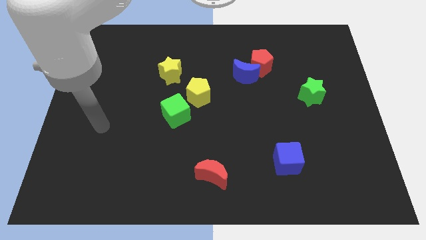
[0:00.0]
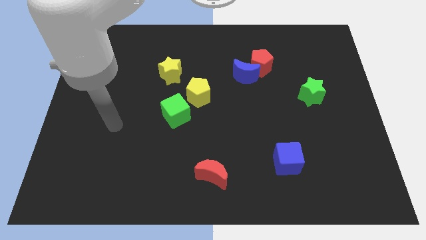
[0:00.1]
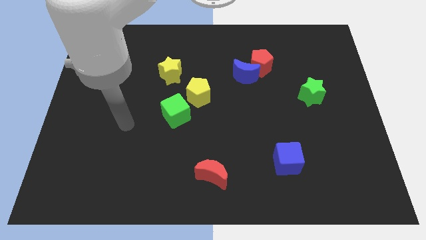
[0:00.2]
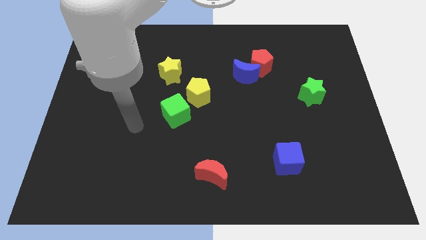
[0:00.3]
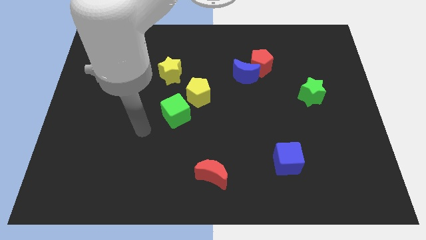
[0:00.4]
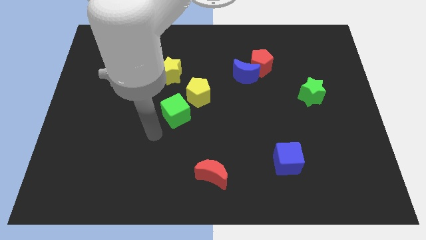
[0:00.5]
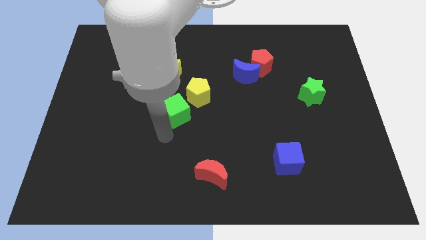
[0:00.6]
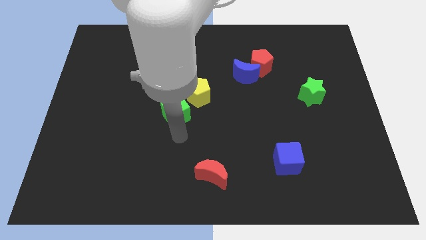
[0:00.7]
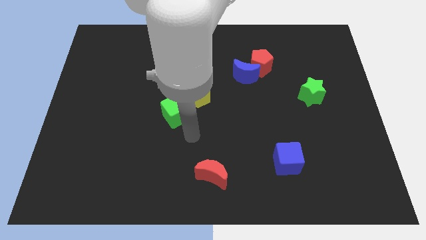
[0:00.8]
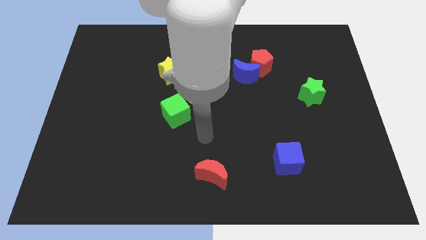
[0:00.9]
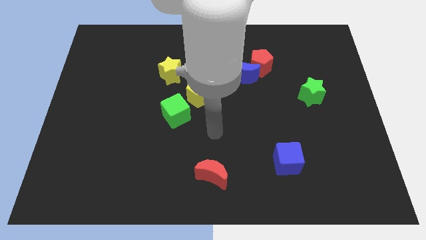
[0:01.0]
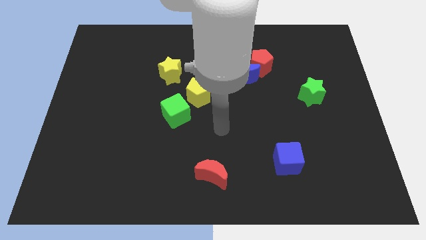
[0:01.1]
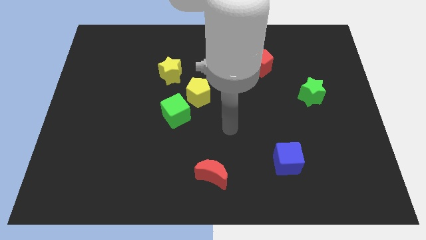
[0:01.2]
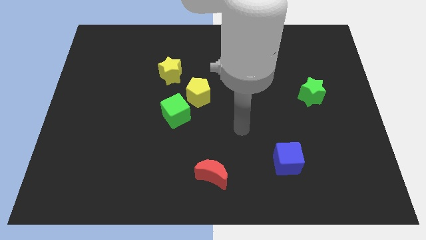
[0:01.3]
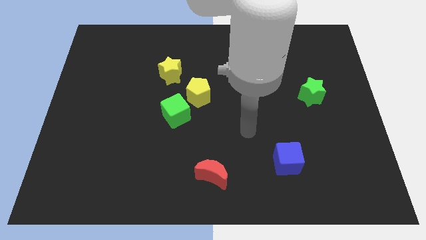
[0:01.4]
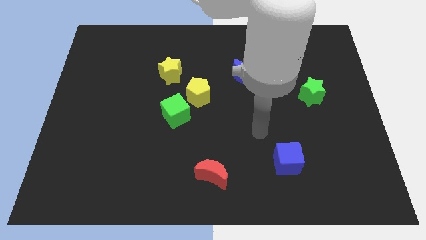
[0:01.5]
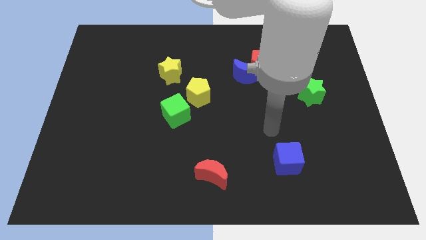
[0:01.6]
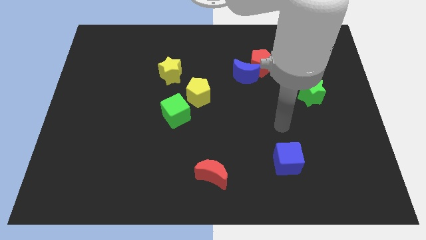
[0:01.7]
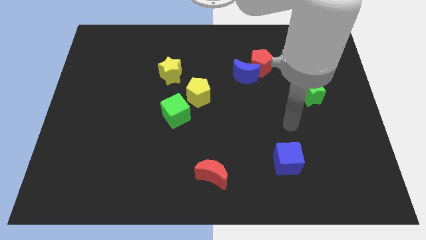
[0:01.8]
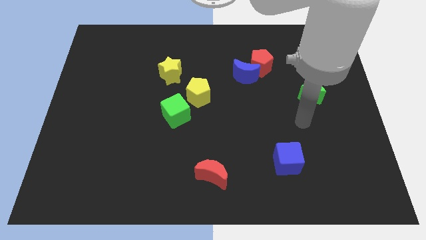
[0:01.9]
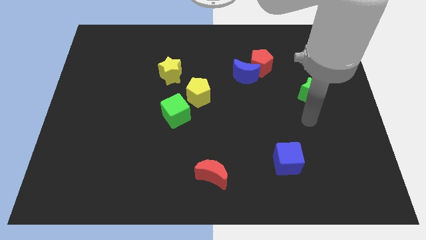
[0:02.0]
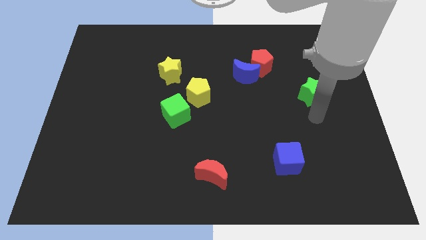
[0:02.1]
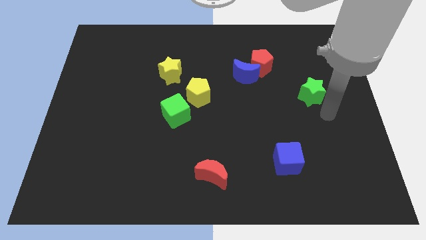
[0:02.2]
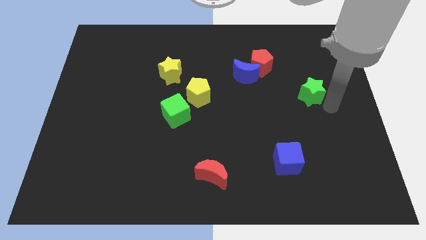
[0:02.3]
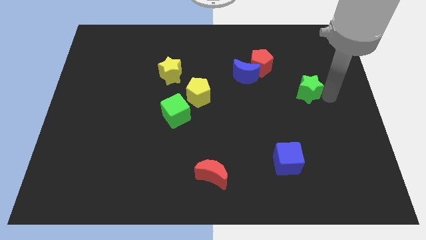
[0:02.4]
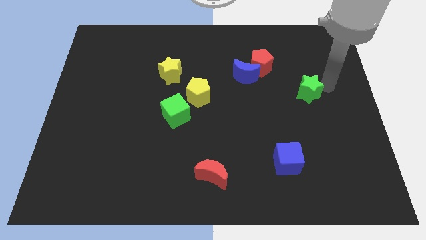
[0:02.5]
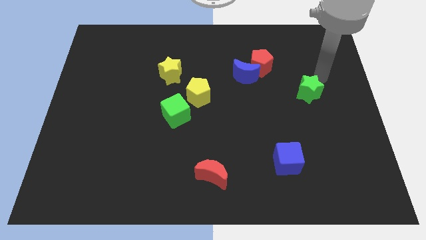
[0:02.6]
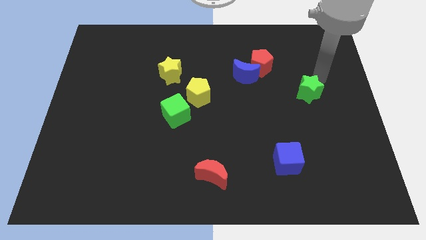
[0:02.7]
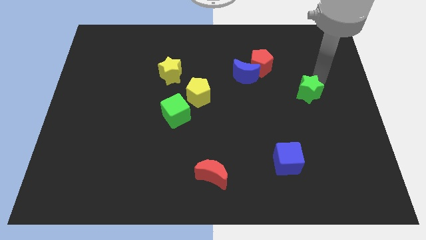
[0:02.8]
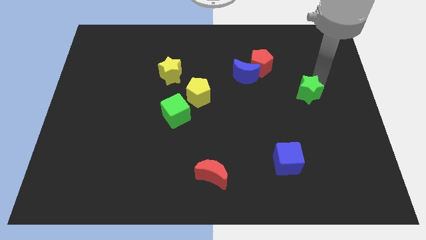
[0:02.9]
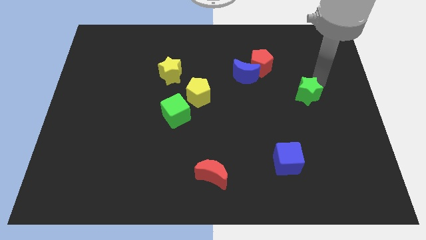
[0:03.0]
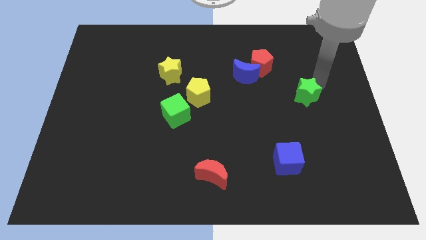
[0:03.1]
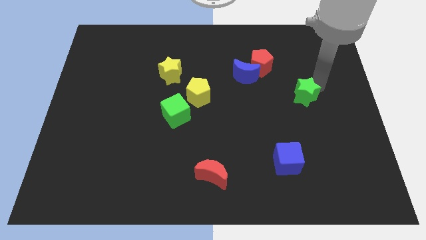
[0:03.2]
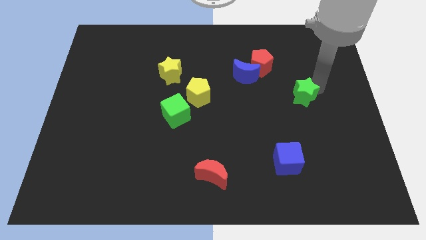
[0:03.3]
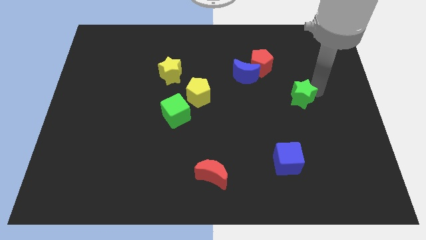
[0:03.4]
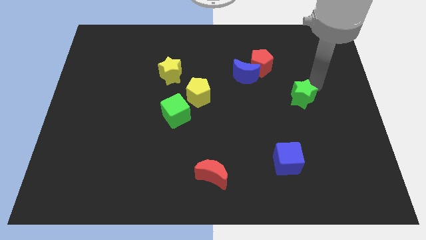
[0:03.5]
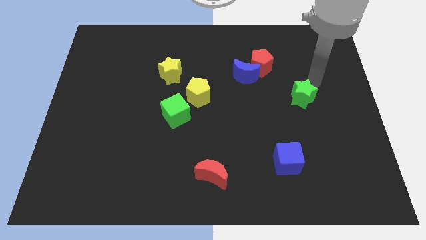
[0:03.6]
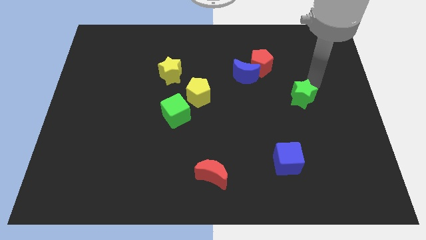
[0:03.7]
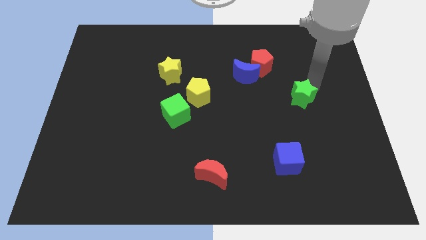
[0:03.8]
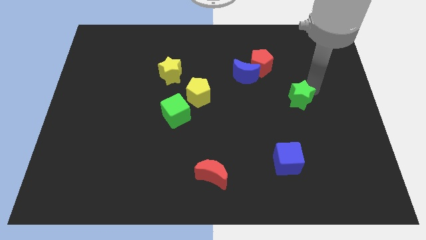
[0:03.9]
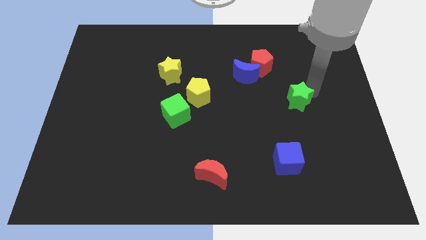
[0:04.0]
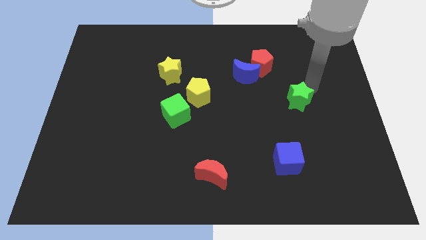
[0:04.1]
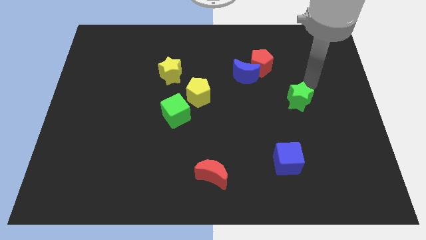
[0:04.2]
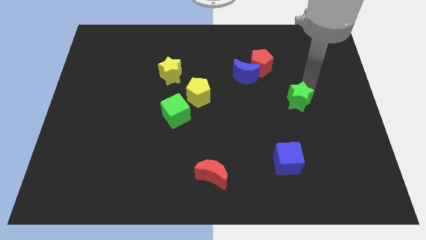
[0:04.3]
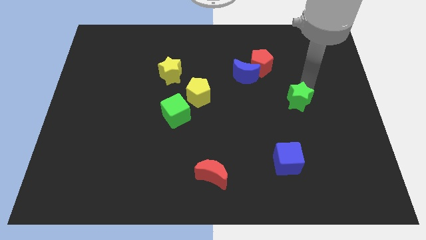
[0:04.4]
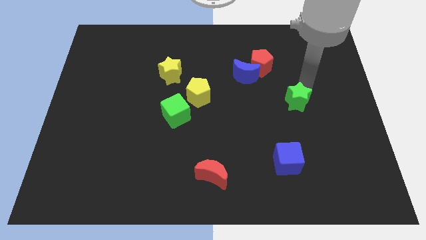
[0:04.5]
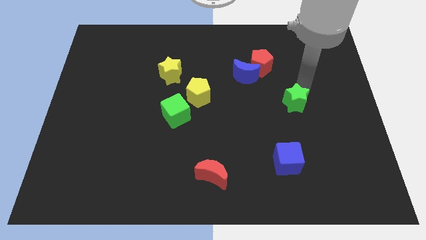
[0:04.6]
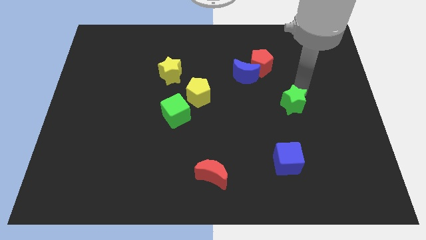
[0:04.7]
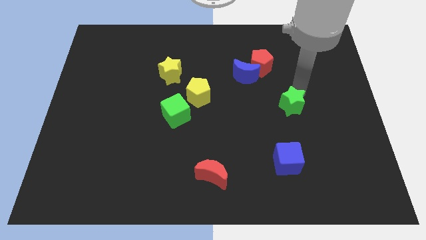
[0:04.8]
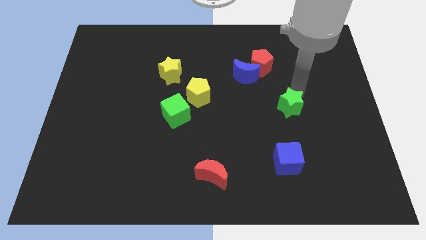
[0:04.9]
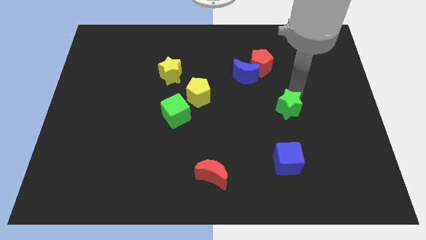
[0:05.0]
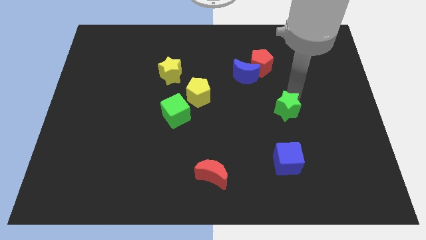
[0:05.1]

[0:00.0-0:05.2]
slide the green star down and then to the left a little

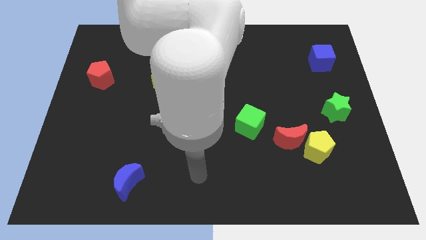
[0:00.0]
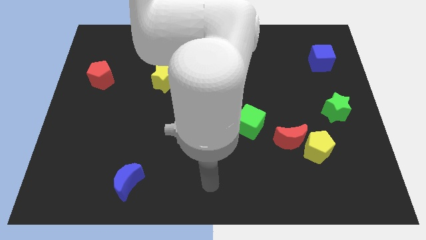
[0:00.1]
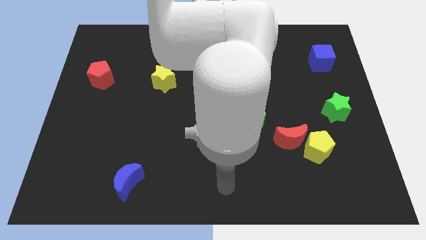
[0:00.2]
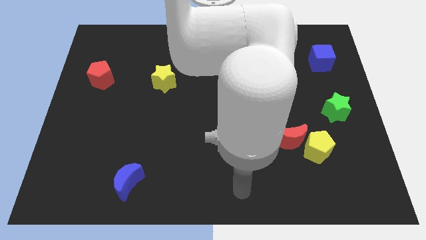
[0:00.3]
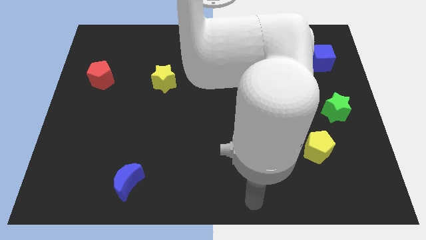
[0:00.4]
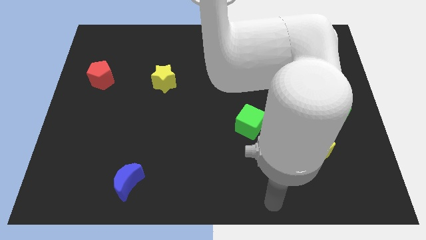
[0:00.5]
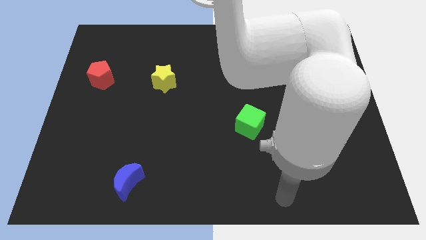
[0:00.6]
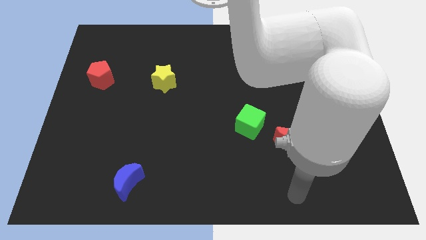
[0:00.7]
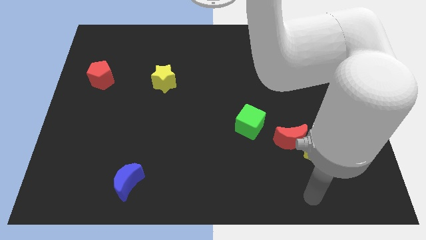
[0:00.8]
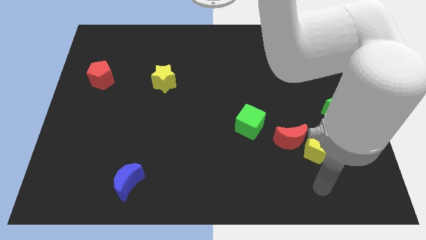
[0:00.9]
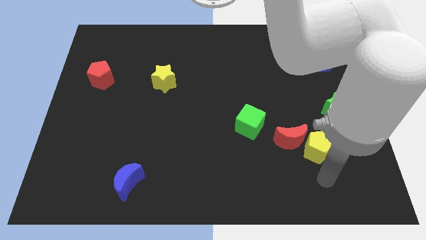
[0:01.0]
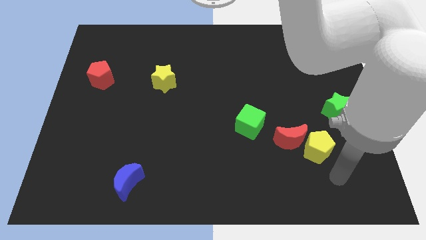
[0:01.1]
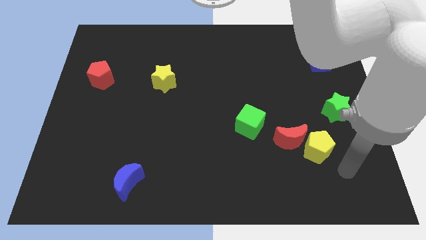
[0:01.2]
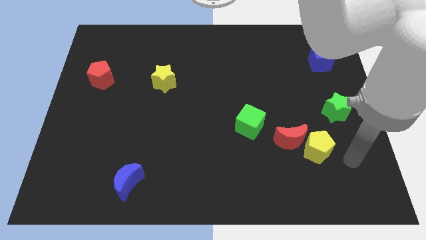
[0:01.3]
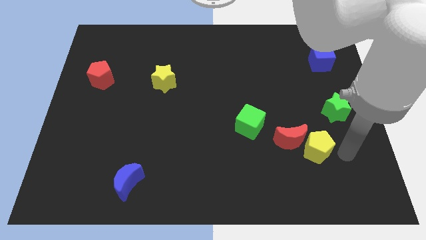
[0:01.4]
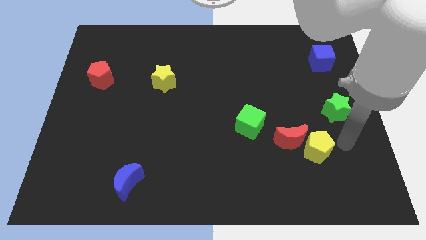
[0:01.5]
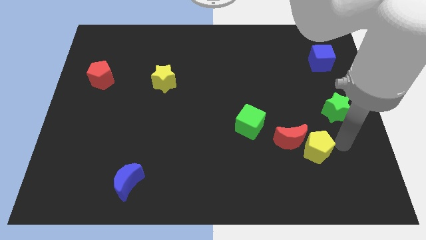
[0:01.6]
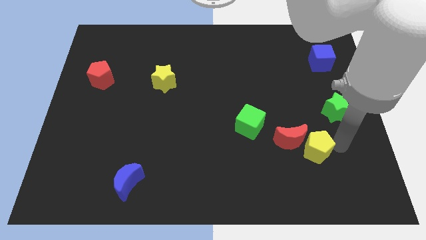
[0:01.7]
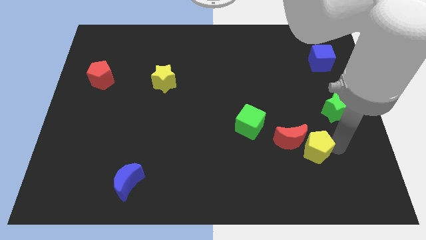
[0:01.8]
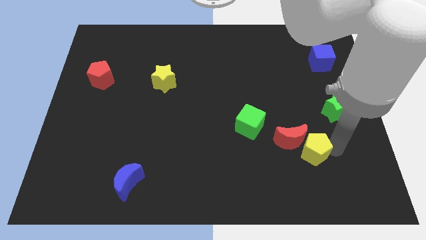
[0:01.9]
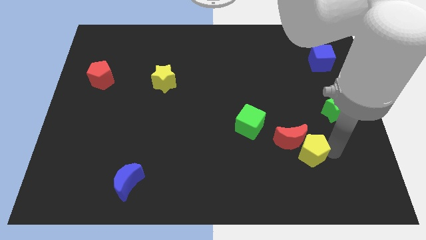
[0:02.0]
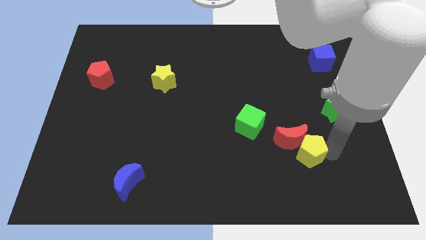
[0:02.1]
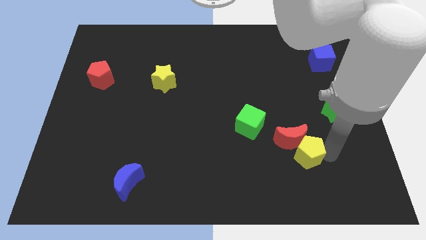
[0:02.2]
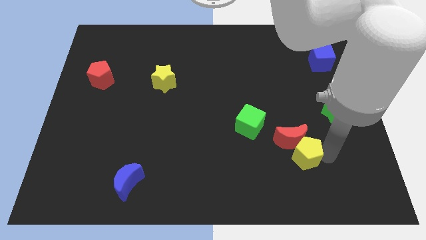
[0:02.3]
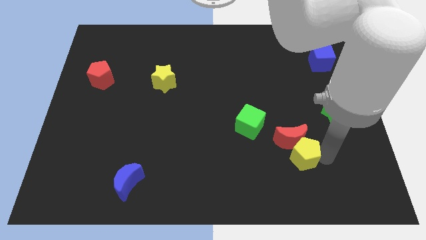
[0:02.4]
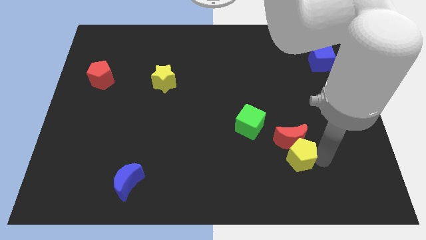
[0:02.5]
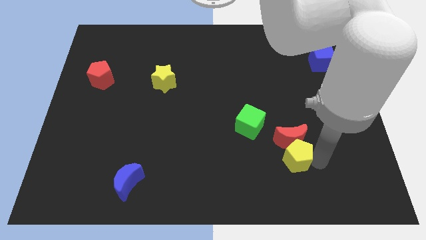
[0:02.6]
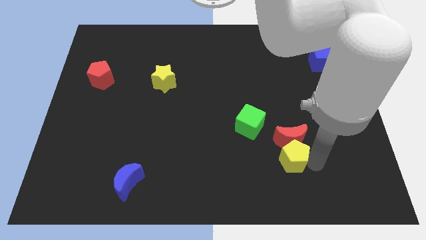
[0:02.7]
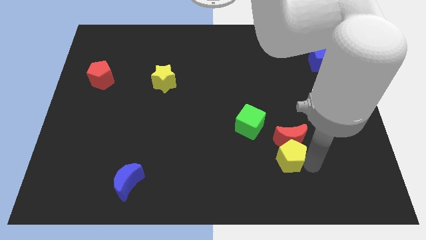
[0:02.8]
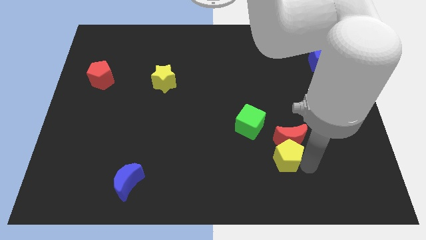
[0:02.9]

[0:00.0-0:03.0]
push the yellow pentagon left a little bit

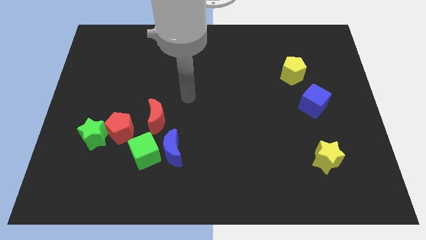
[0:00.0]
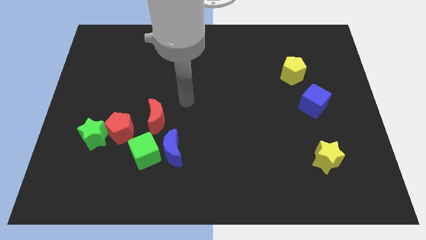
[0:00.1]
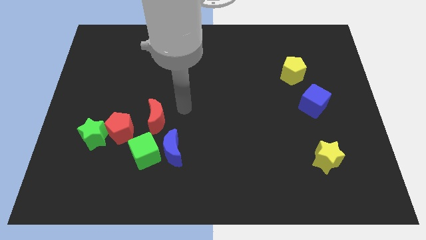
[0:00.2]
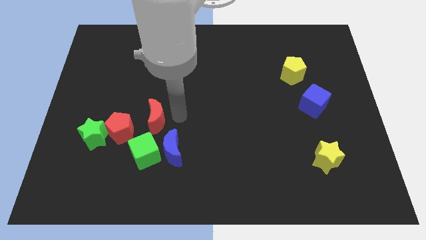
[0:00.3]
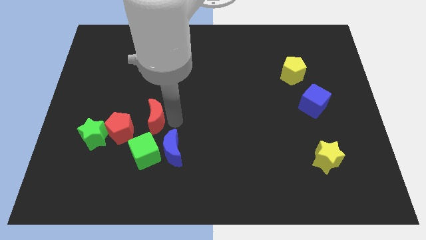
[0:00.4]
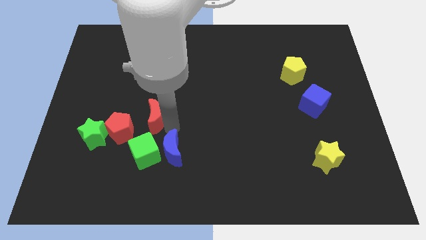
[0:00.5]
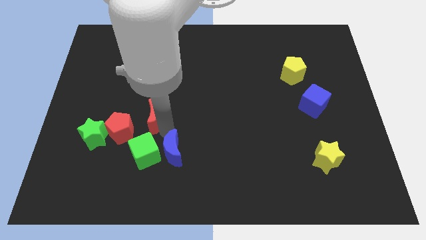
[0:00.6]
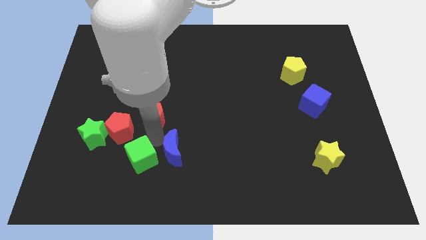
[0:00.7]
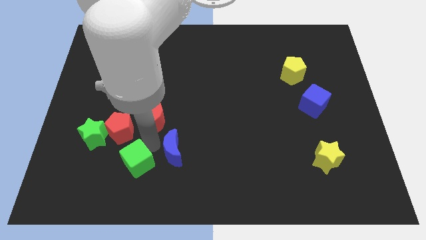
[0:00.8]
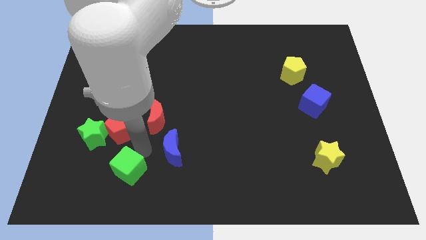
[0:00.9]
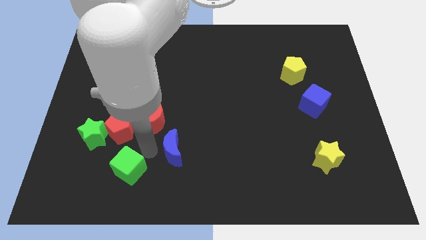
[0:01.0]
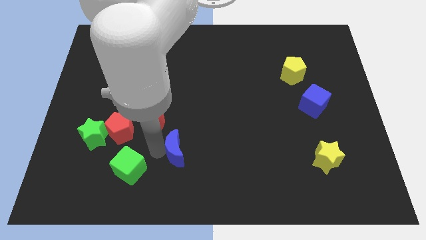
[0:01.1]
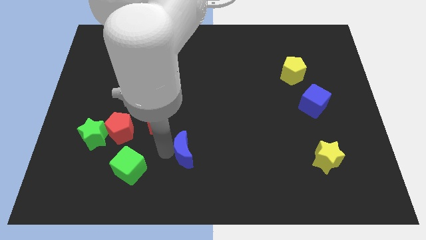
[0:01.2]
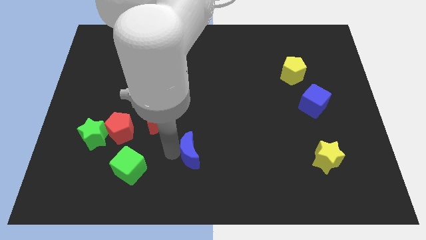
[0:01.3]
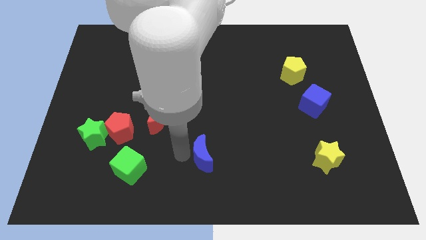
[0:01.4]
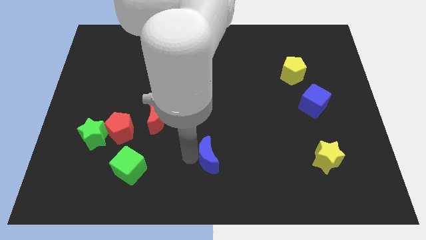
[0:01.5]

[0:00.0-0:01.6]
slightly slide the blue moon to the right
